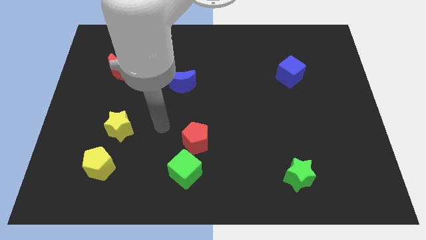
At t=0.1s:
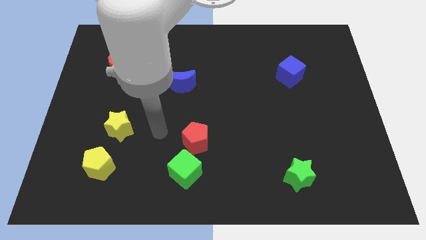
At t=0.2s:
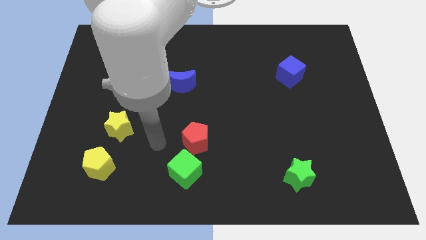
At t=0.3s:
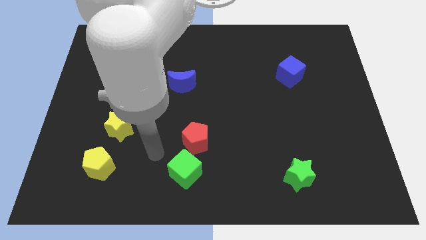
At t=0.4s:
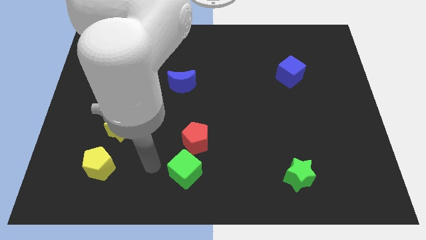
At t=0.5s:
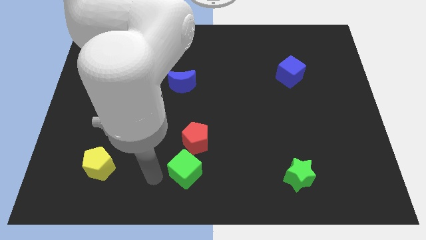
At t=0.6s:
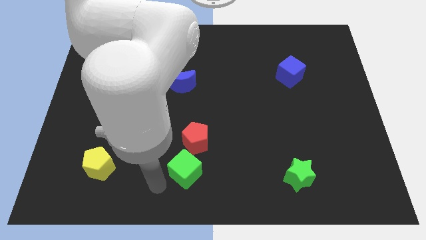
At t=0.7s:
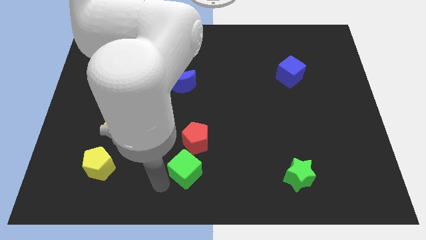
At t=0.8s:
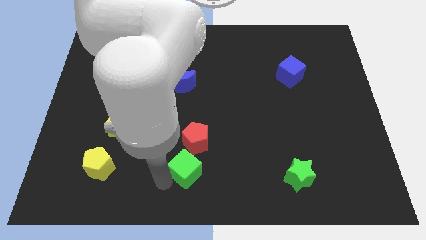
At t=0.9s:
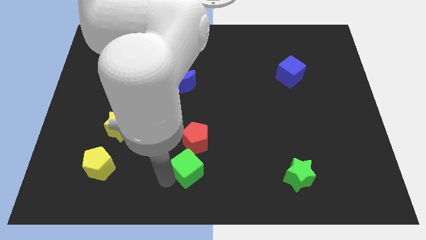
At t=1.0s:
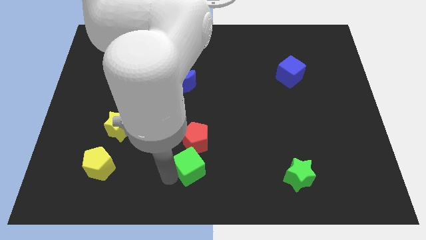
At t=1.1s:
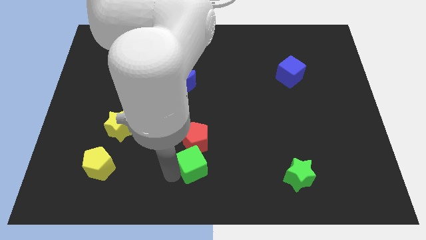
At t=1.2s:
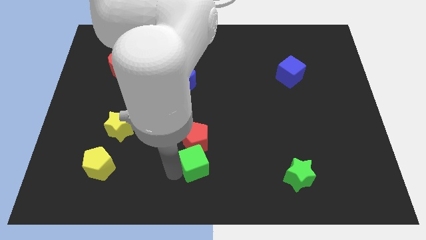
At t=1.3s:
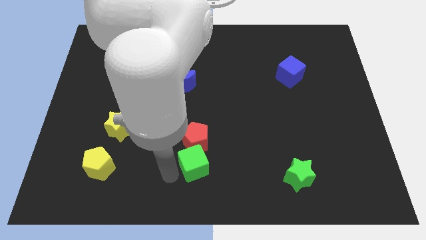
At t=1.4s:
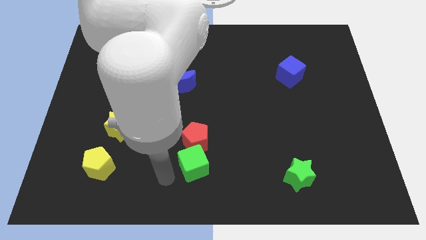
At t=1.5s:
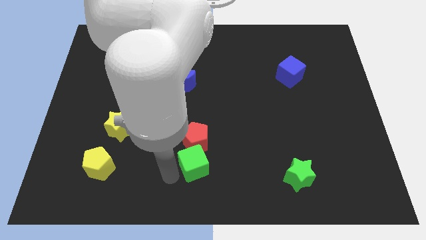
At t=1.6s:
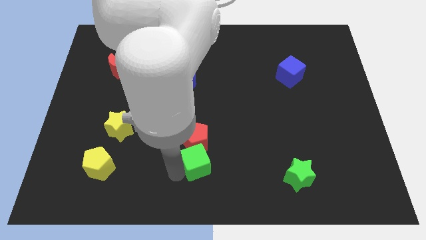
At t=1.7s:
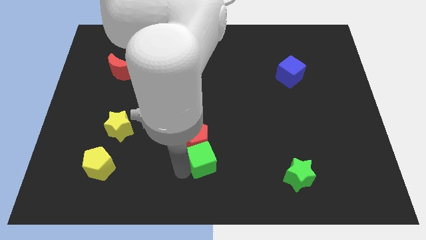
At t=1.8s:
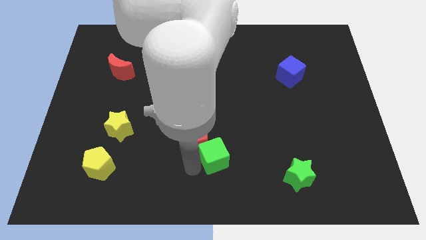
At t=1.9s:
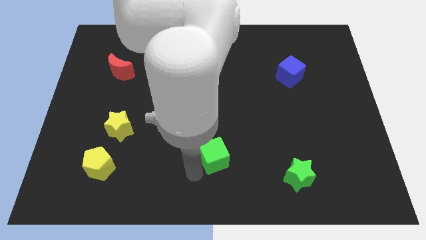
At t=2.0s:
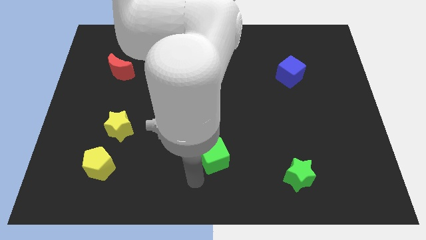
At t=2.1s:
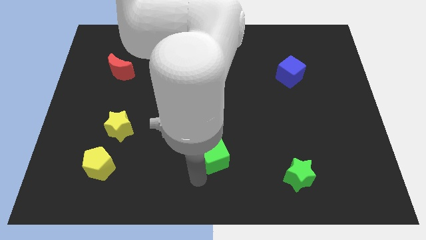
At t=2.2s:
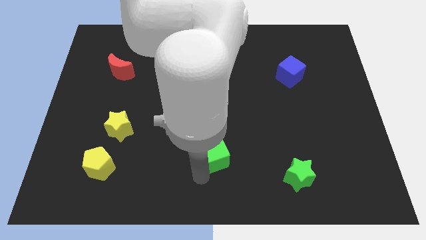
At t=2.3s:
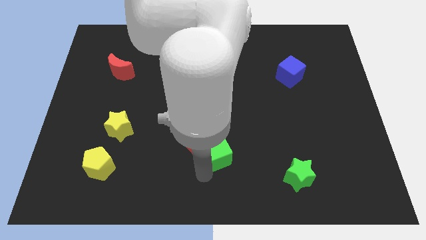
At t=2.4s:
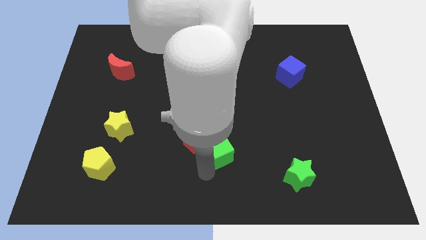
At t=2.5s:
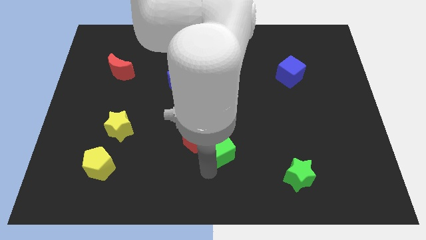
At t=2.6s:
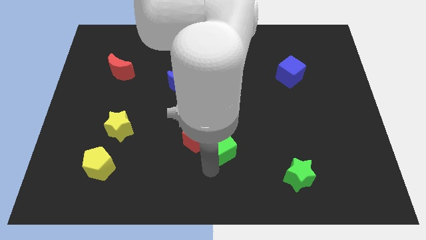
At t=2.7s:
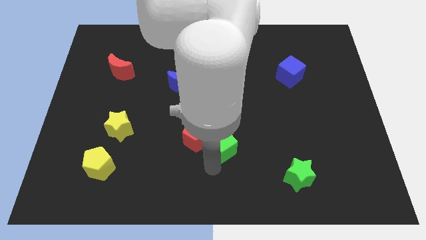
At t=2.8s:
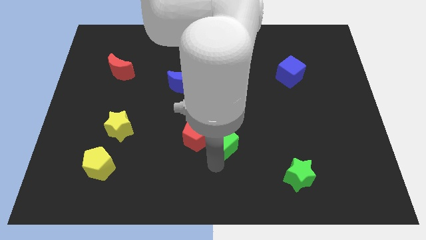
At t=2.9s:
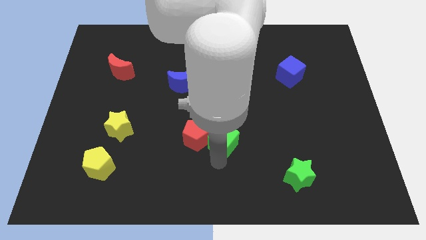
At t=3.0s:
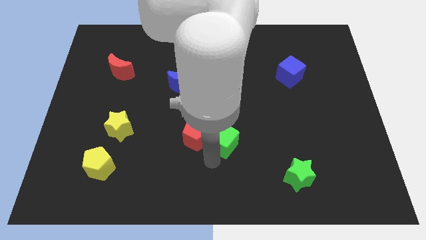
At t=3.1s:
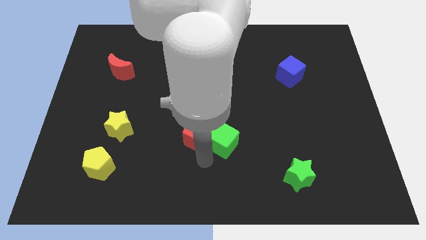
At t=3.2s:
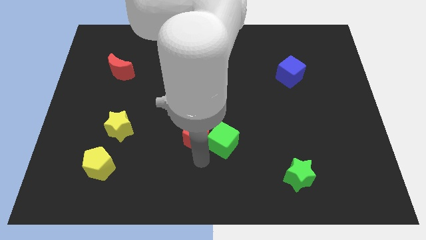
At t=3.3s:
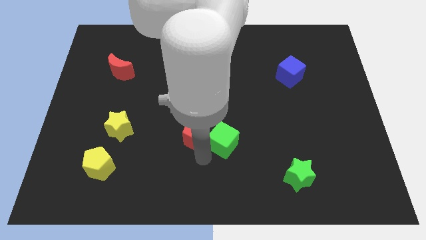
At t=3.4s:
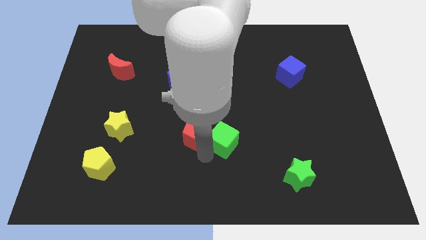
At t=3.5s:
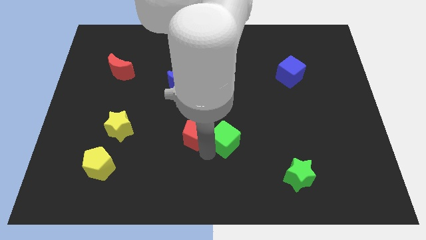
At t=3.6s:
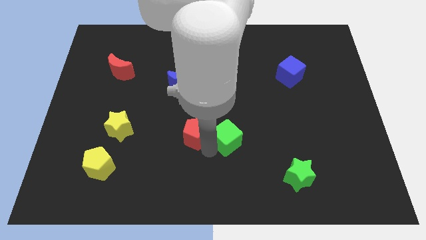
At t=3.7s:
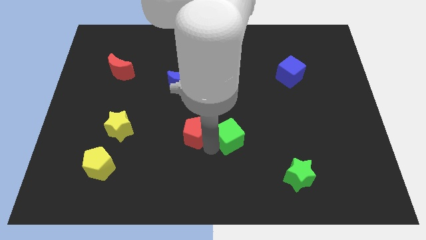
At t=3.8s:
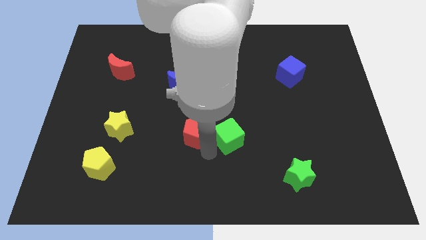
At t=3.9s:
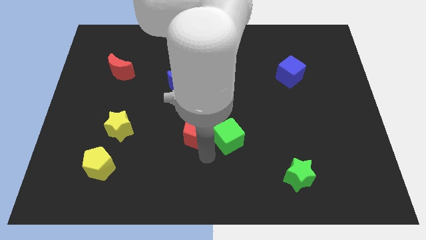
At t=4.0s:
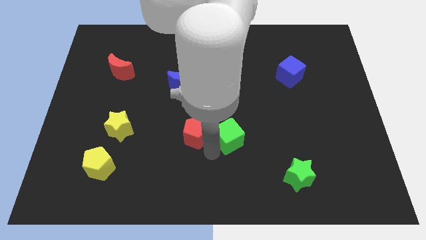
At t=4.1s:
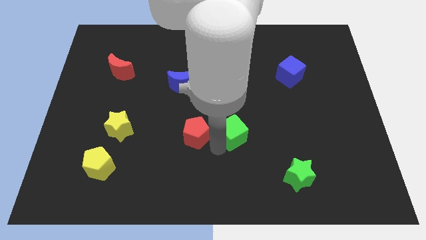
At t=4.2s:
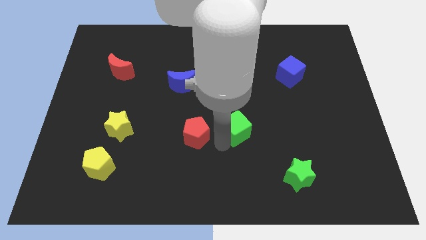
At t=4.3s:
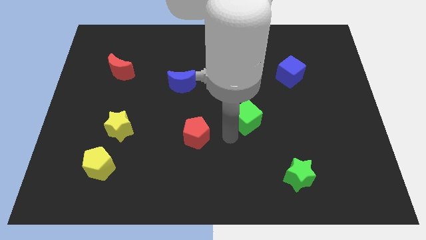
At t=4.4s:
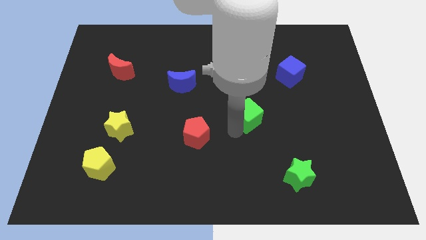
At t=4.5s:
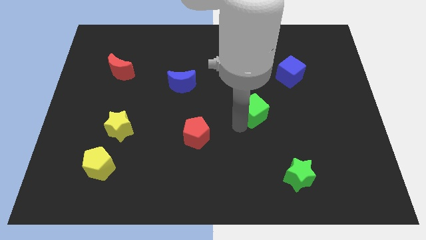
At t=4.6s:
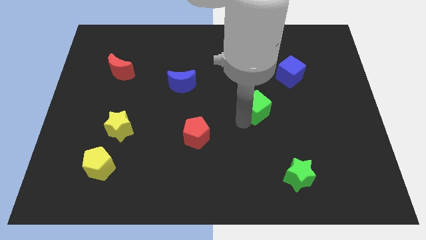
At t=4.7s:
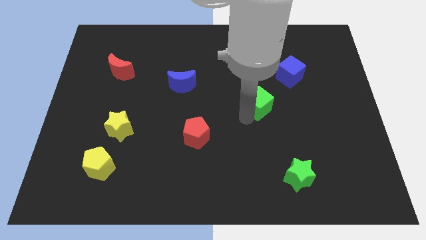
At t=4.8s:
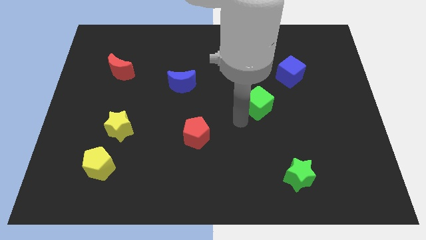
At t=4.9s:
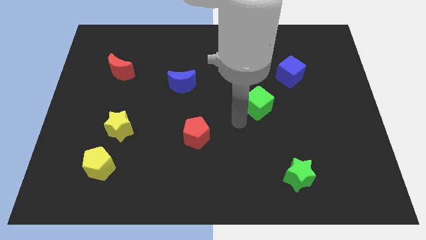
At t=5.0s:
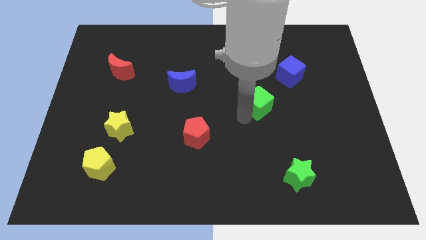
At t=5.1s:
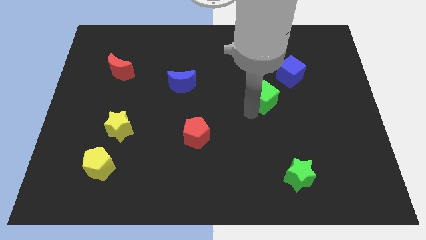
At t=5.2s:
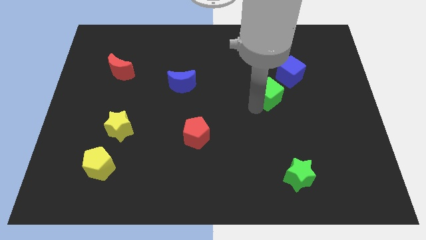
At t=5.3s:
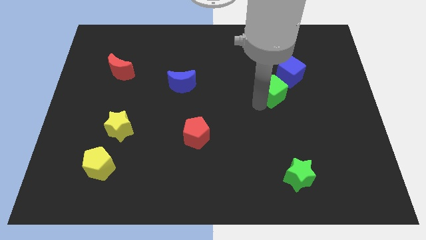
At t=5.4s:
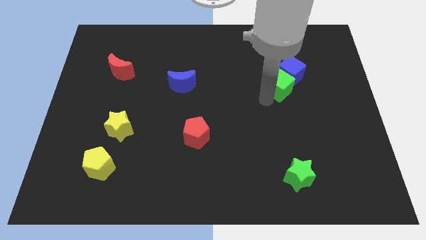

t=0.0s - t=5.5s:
move the green cube towards the blue cube

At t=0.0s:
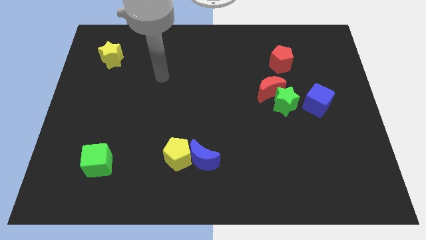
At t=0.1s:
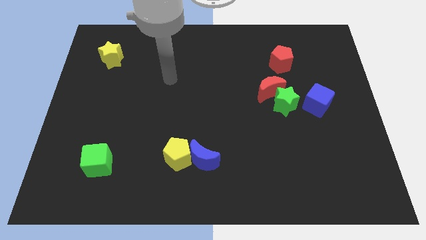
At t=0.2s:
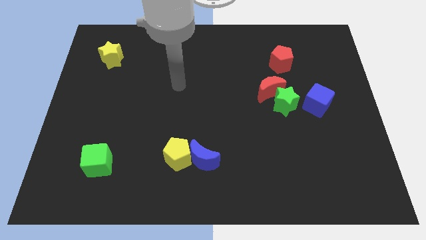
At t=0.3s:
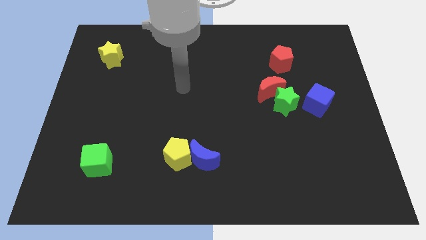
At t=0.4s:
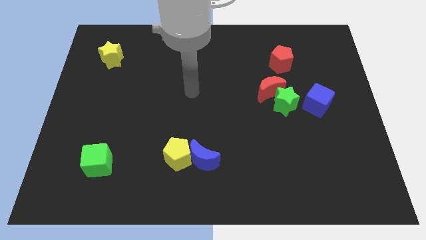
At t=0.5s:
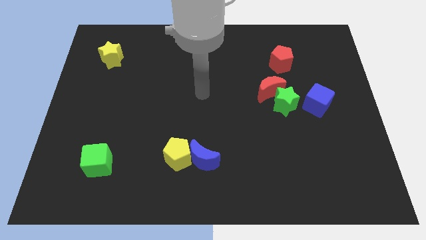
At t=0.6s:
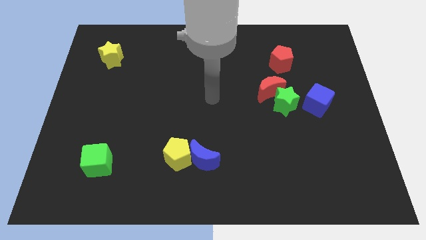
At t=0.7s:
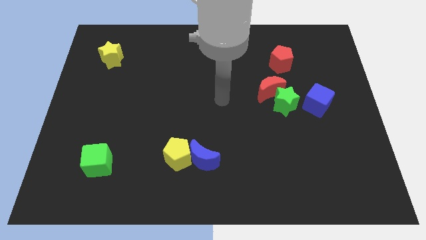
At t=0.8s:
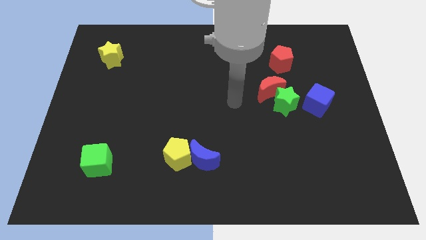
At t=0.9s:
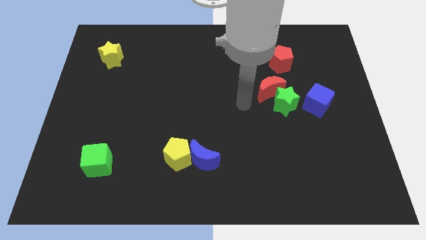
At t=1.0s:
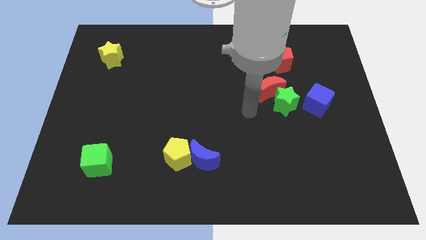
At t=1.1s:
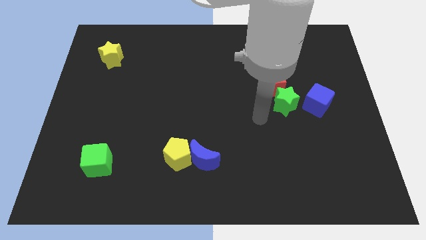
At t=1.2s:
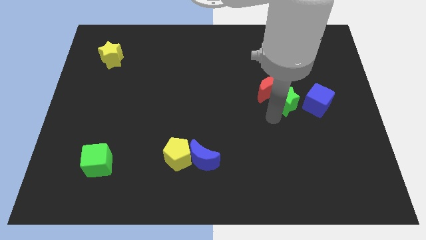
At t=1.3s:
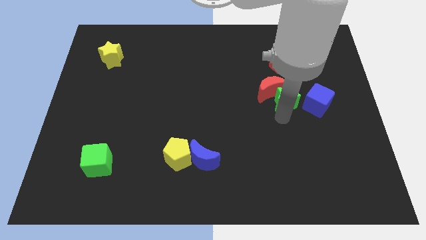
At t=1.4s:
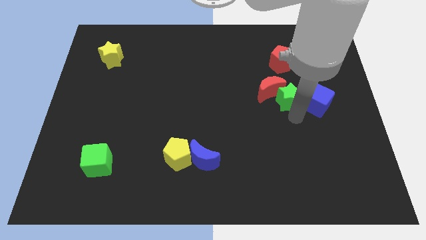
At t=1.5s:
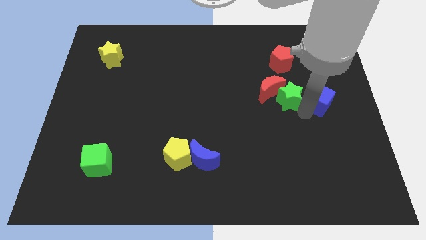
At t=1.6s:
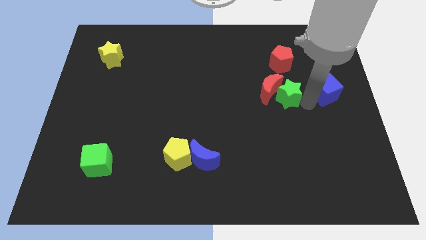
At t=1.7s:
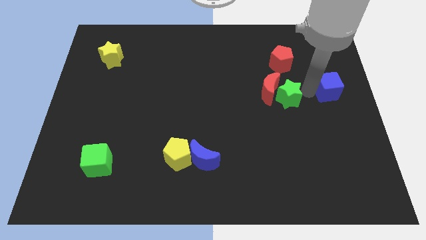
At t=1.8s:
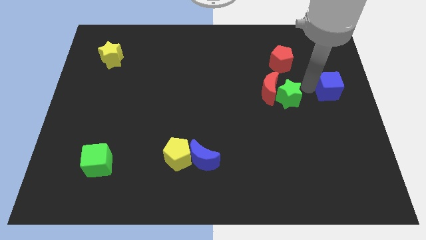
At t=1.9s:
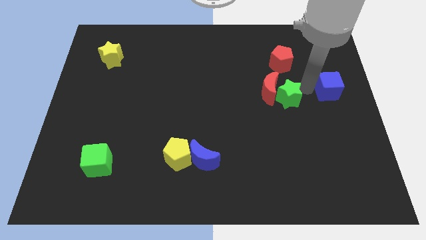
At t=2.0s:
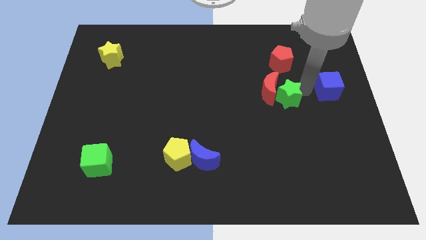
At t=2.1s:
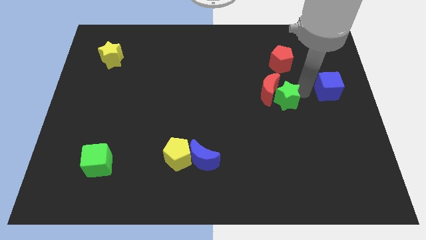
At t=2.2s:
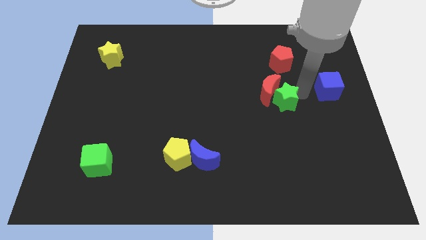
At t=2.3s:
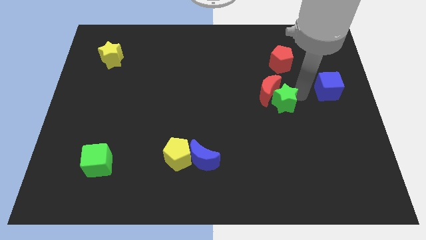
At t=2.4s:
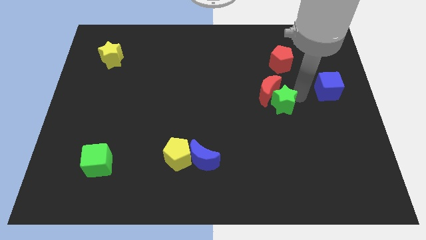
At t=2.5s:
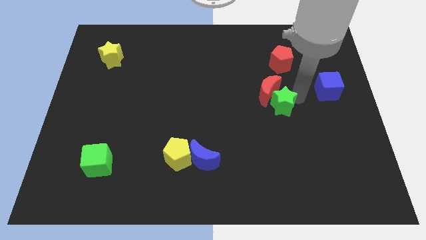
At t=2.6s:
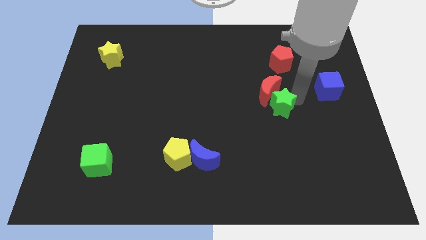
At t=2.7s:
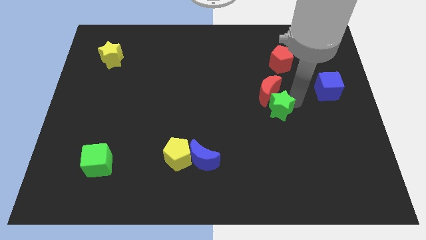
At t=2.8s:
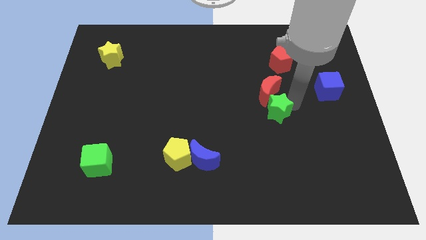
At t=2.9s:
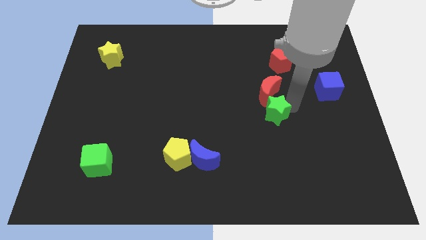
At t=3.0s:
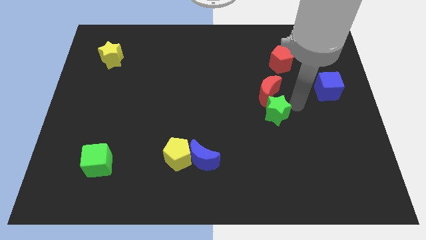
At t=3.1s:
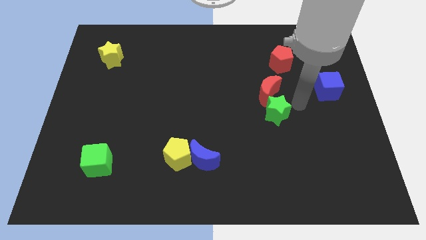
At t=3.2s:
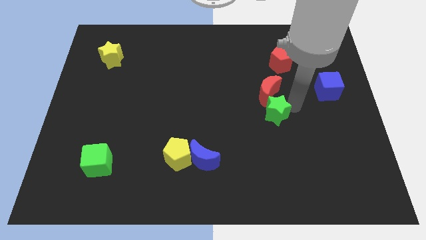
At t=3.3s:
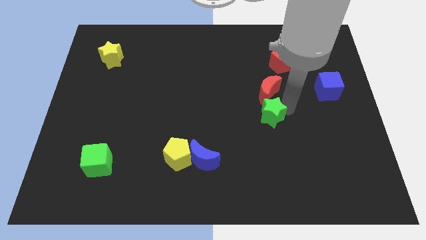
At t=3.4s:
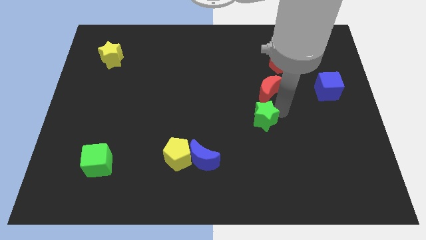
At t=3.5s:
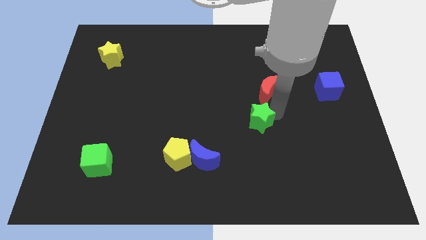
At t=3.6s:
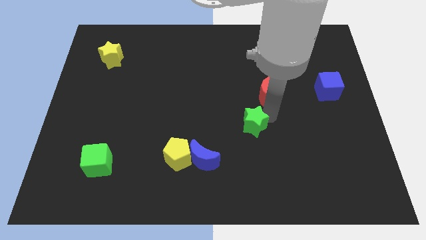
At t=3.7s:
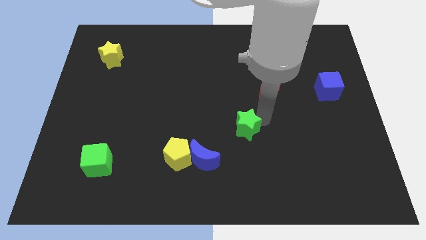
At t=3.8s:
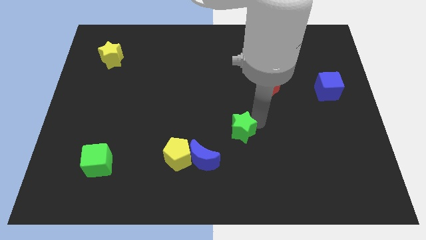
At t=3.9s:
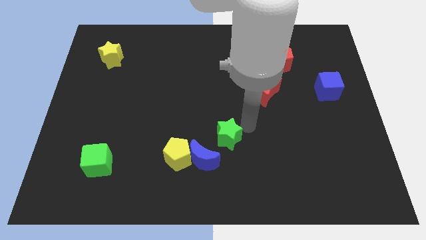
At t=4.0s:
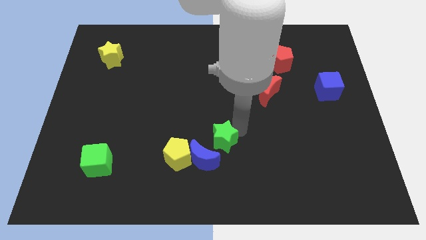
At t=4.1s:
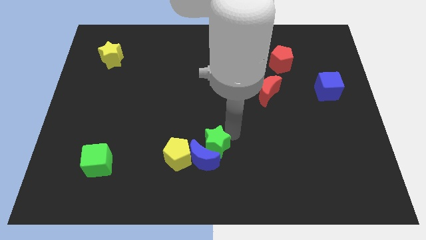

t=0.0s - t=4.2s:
slide the green star next to the blue moon
